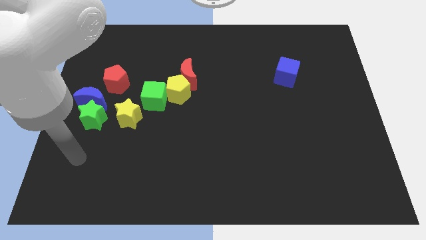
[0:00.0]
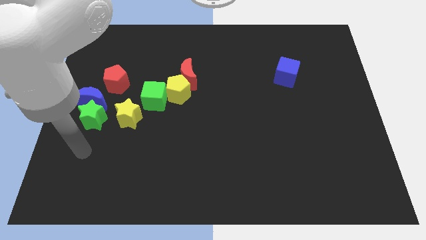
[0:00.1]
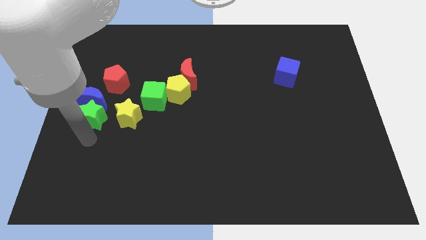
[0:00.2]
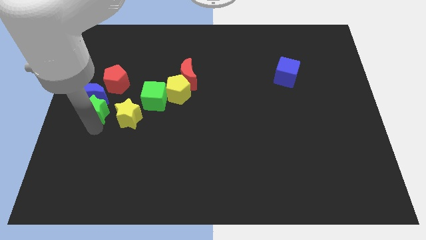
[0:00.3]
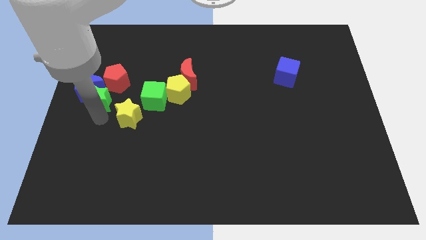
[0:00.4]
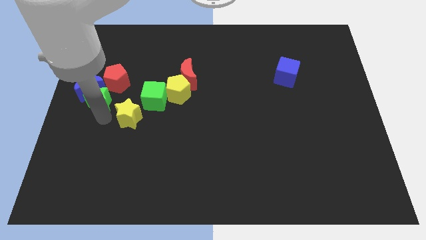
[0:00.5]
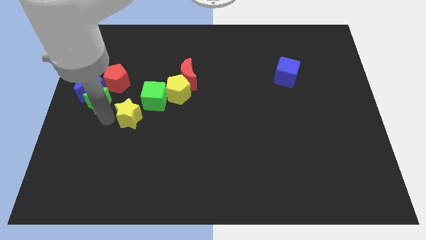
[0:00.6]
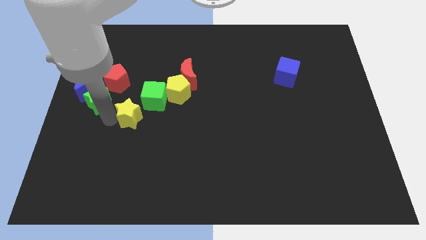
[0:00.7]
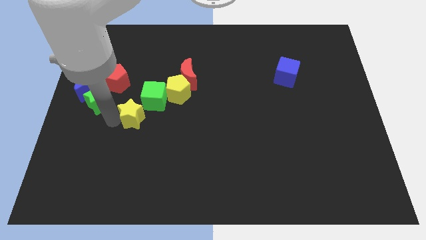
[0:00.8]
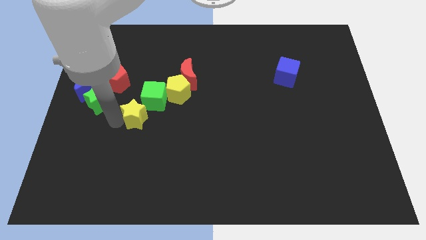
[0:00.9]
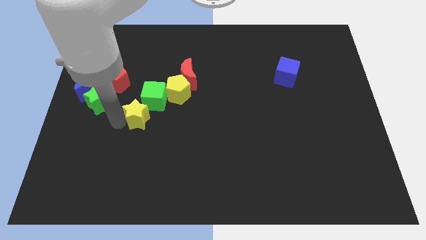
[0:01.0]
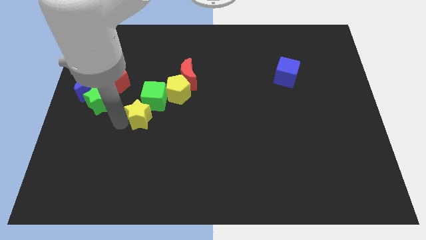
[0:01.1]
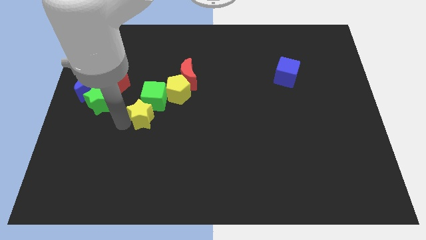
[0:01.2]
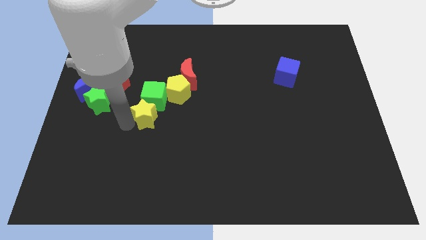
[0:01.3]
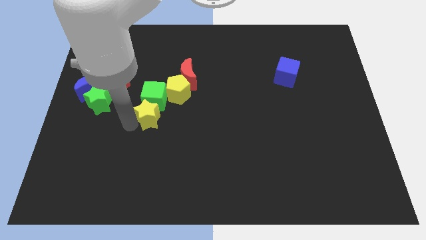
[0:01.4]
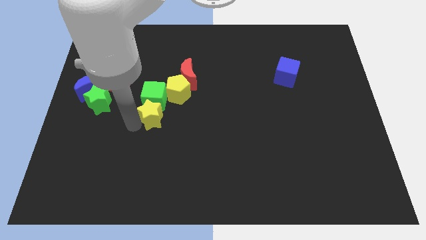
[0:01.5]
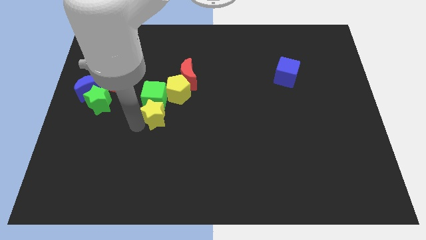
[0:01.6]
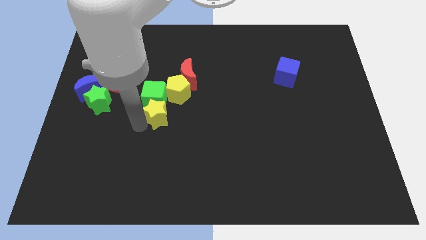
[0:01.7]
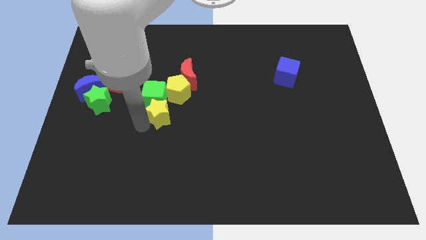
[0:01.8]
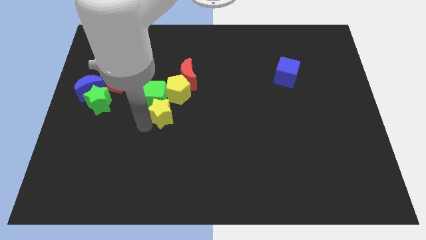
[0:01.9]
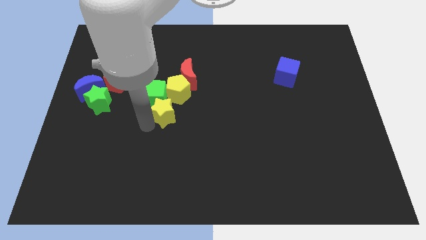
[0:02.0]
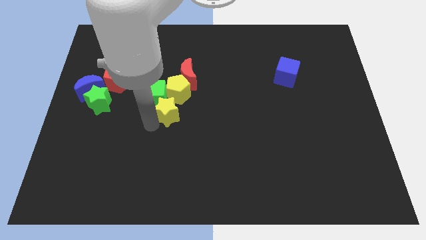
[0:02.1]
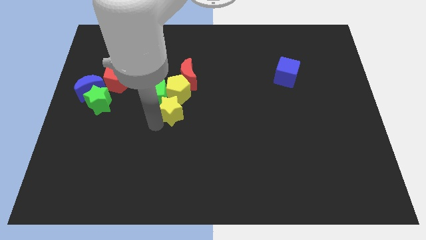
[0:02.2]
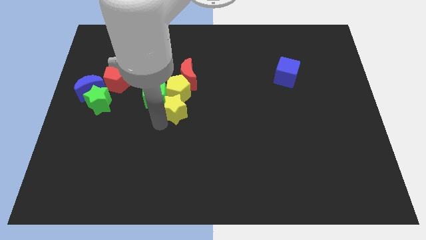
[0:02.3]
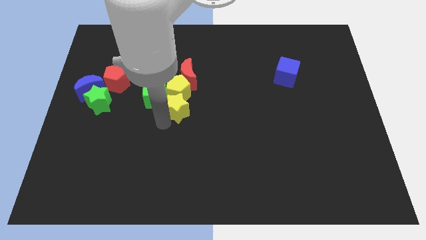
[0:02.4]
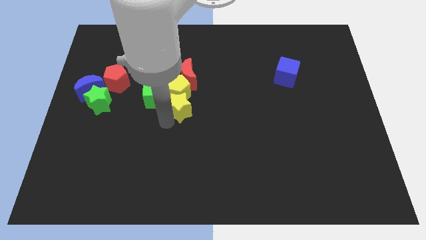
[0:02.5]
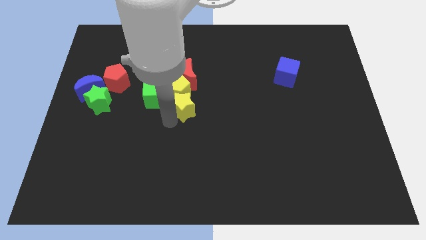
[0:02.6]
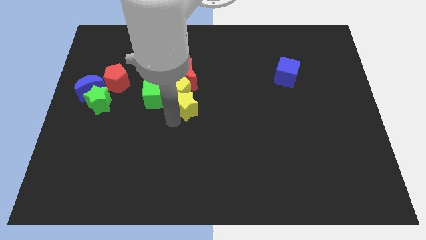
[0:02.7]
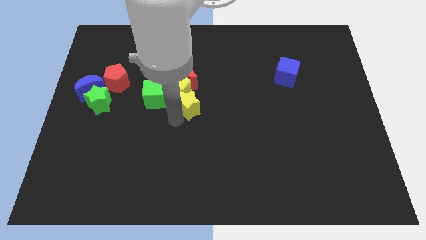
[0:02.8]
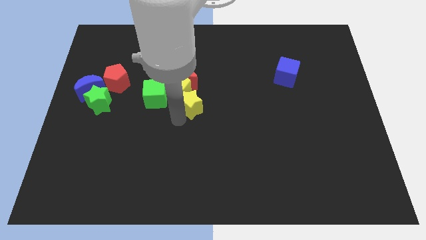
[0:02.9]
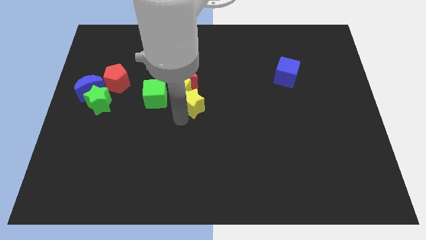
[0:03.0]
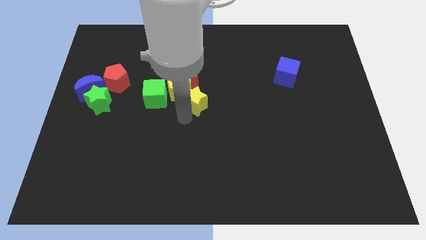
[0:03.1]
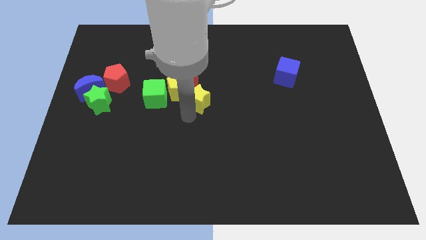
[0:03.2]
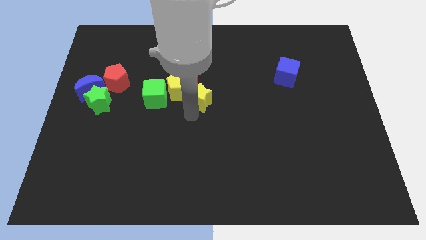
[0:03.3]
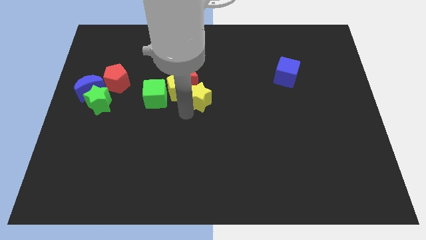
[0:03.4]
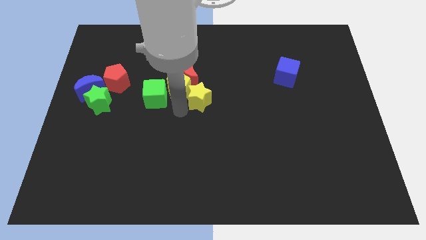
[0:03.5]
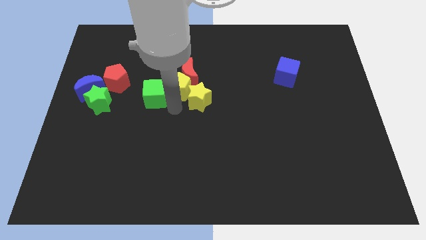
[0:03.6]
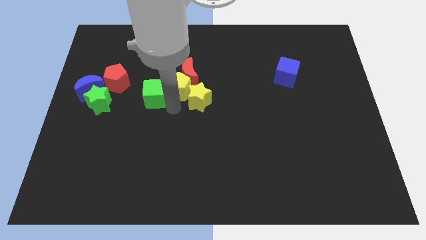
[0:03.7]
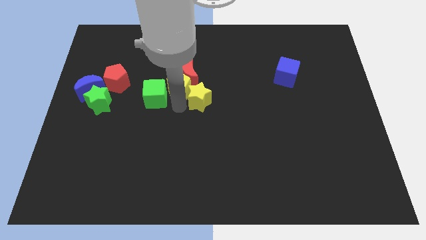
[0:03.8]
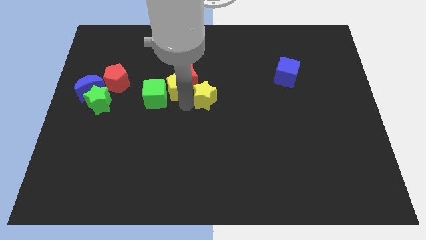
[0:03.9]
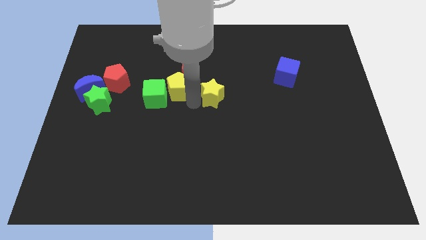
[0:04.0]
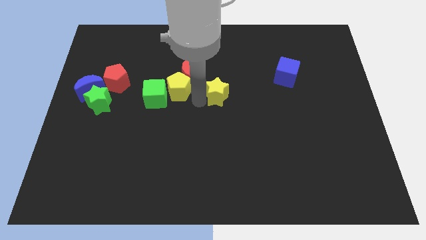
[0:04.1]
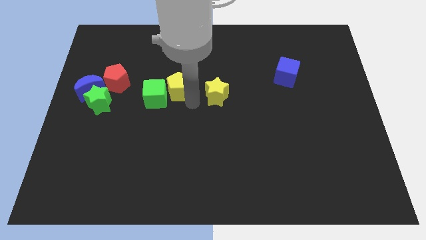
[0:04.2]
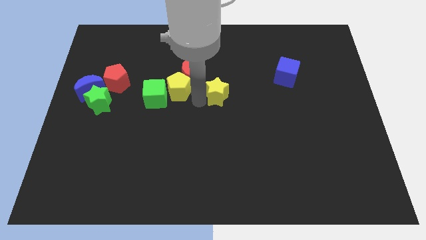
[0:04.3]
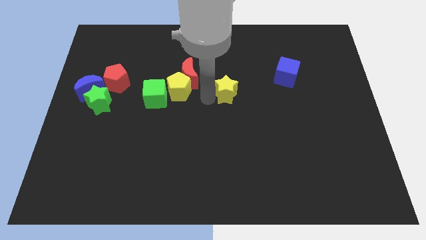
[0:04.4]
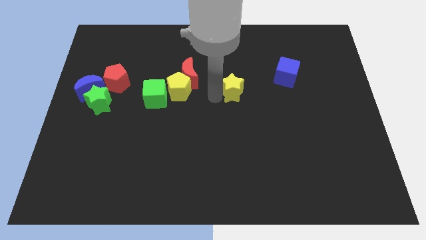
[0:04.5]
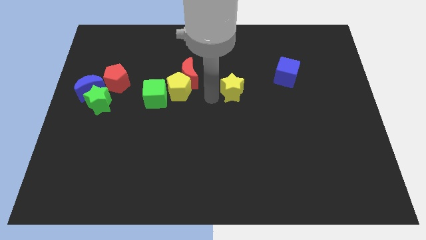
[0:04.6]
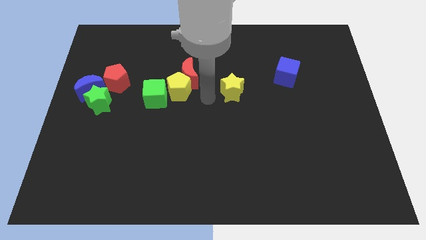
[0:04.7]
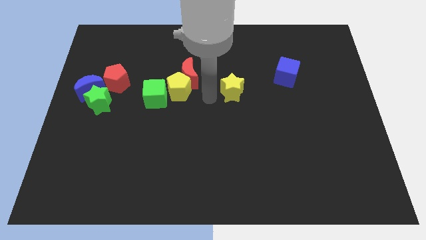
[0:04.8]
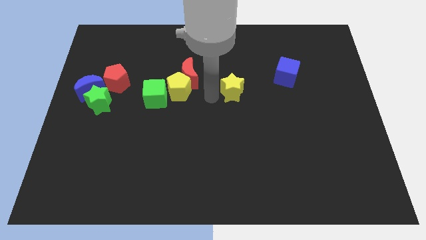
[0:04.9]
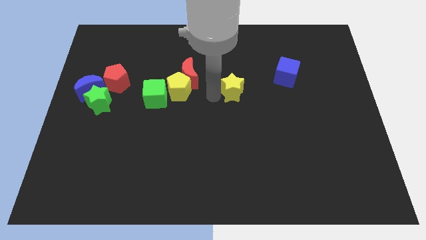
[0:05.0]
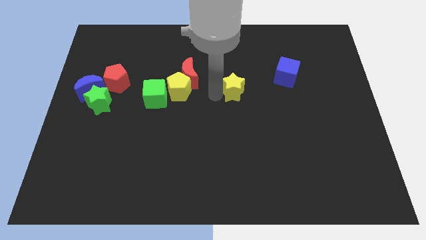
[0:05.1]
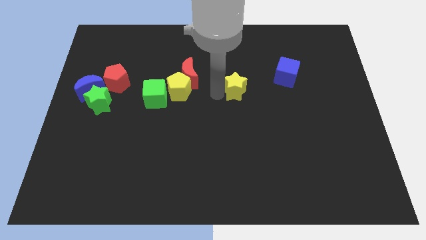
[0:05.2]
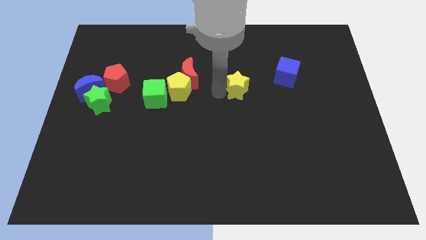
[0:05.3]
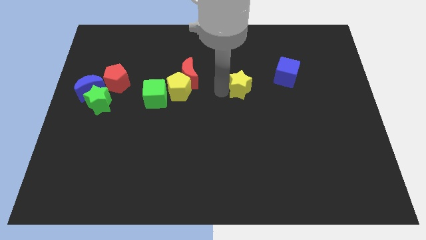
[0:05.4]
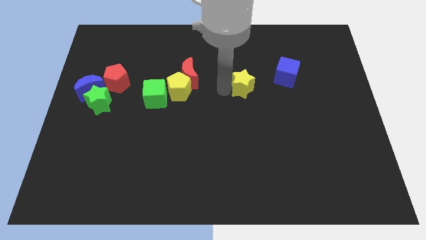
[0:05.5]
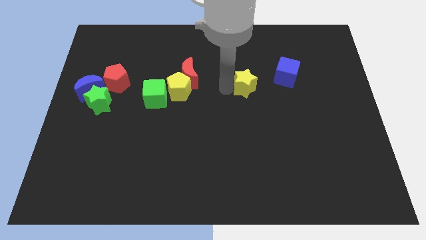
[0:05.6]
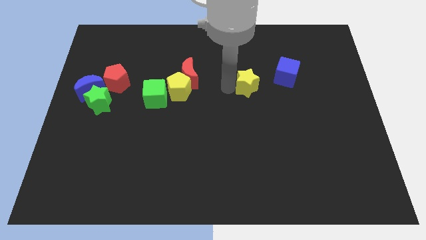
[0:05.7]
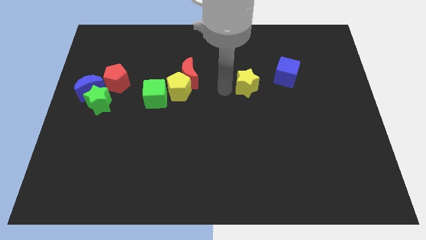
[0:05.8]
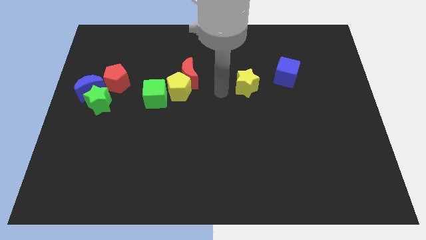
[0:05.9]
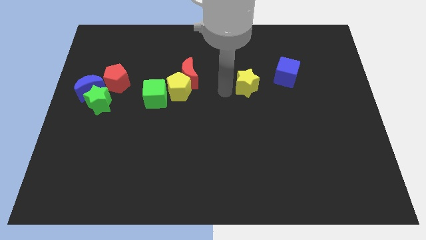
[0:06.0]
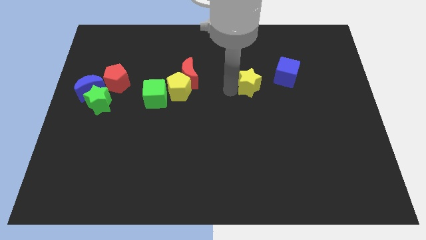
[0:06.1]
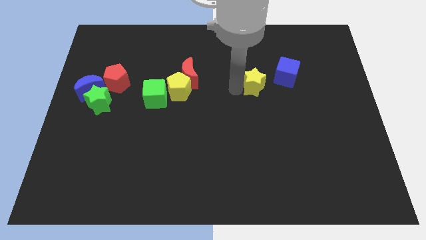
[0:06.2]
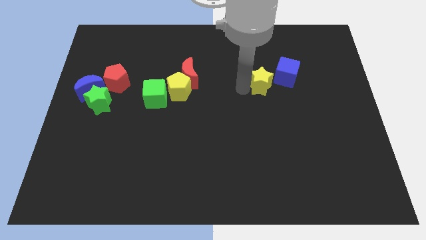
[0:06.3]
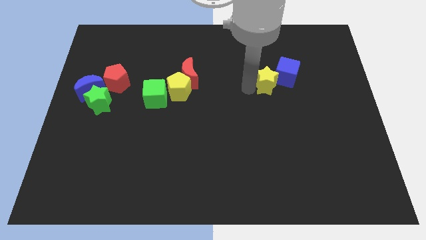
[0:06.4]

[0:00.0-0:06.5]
push the yellow star next to the blue cube

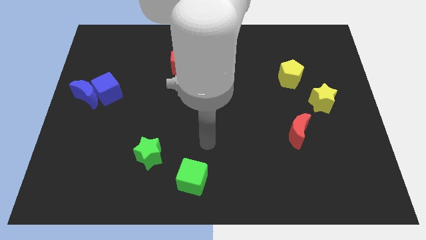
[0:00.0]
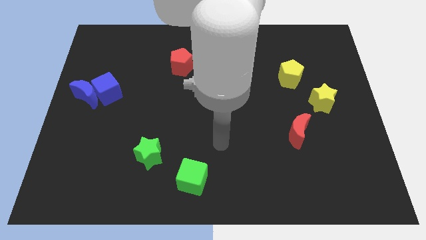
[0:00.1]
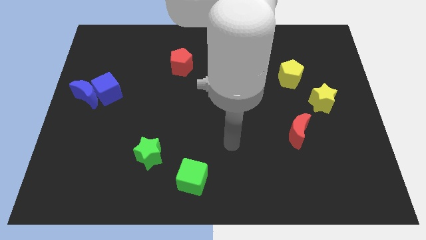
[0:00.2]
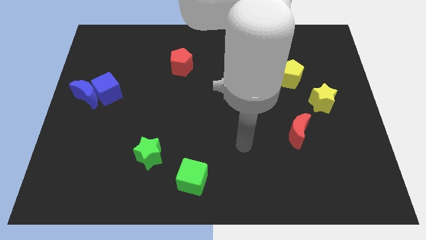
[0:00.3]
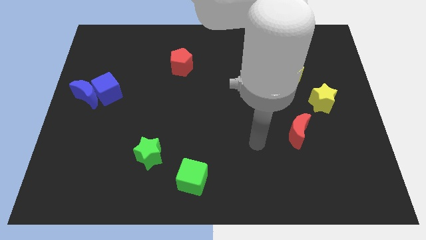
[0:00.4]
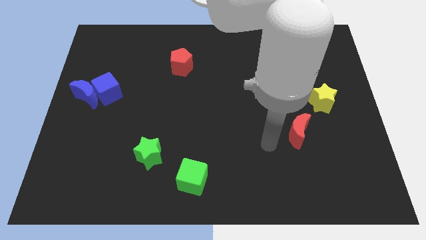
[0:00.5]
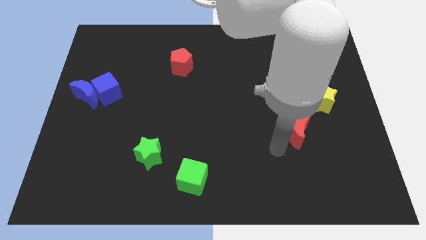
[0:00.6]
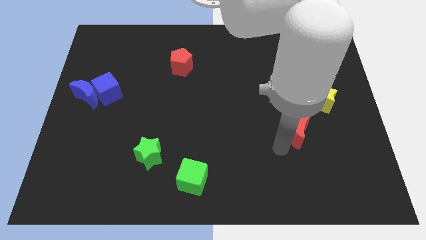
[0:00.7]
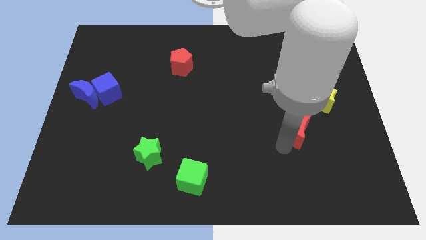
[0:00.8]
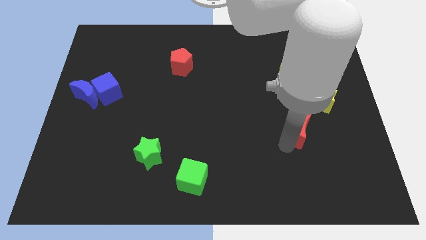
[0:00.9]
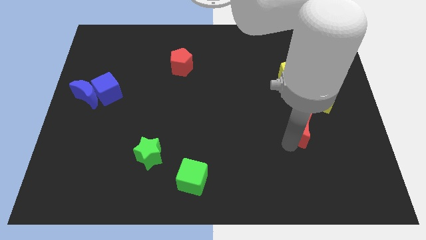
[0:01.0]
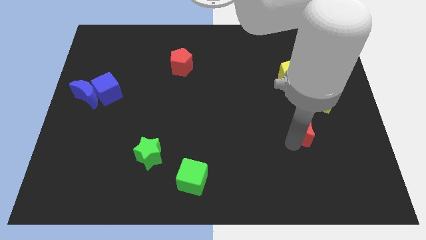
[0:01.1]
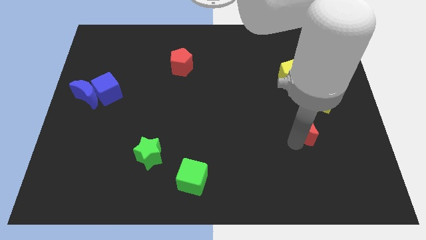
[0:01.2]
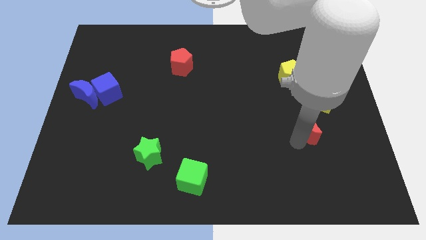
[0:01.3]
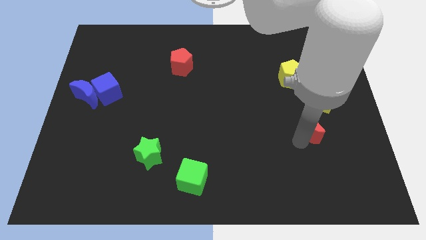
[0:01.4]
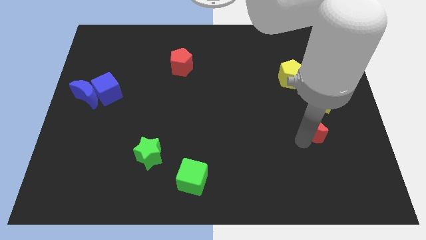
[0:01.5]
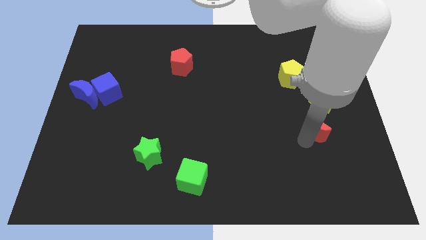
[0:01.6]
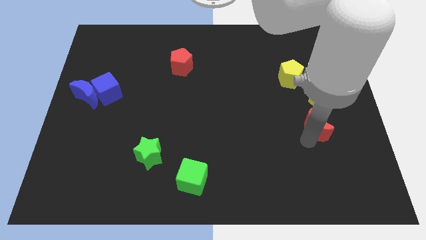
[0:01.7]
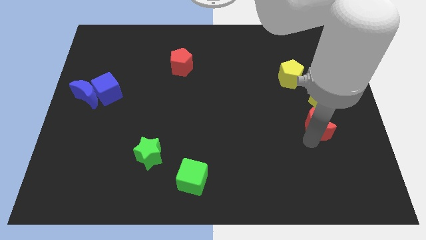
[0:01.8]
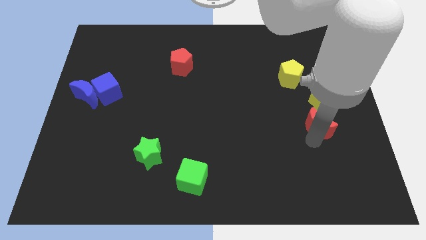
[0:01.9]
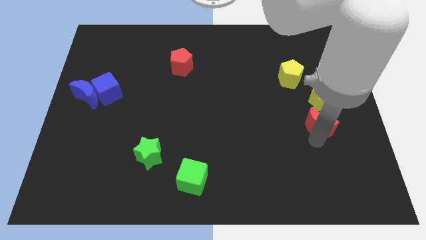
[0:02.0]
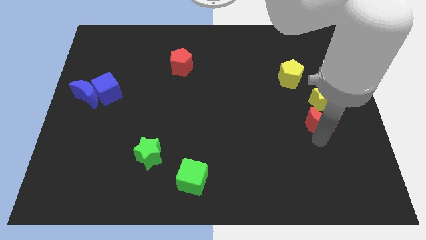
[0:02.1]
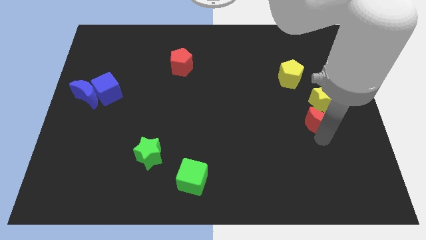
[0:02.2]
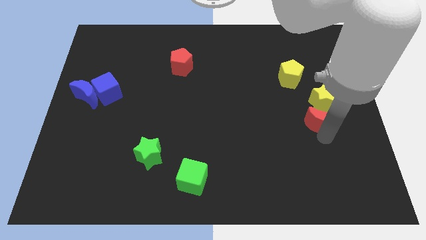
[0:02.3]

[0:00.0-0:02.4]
slide the red moon to the yellow star
